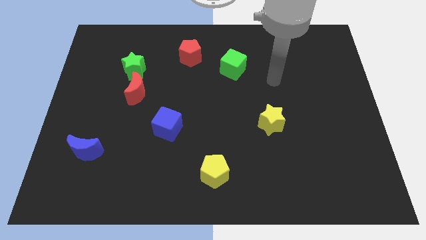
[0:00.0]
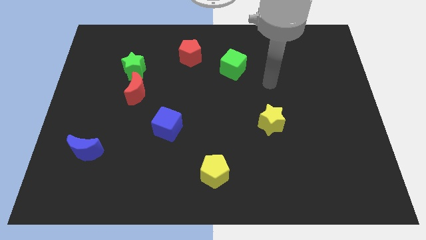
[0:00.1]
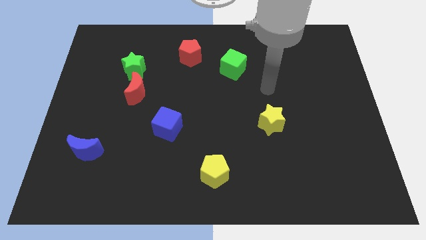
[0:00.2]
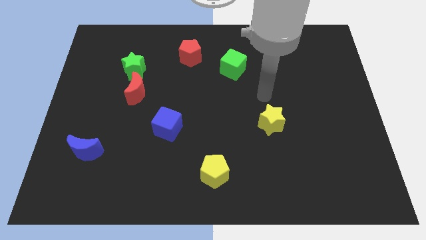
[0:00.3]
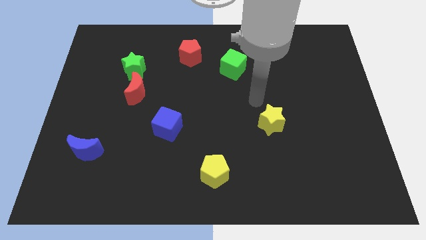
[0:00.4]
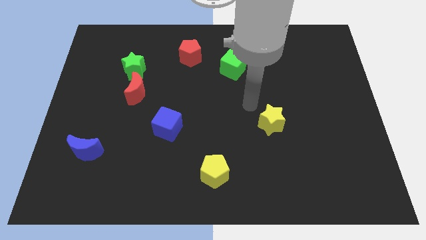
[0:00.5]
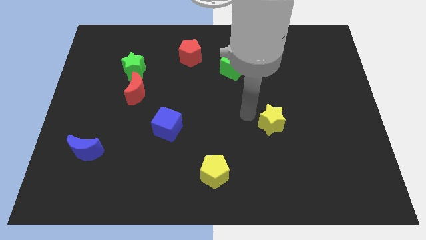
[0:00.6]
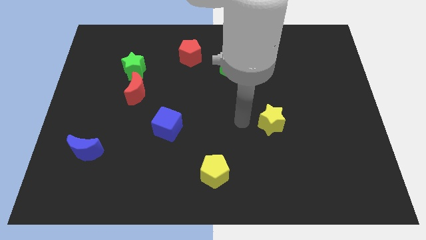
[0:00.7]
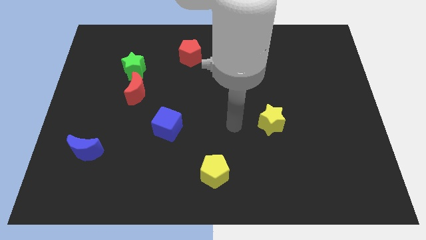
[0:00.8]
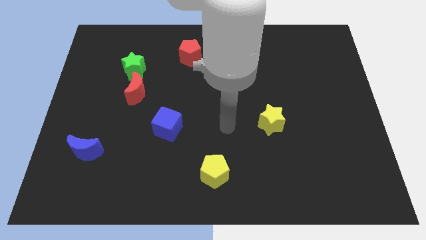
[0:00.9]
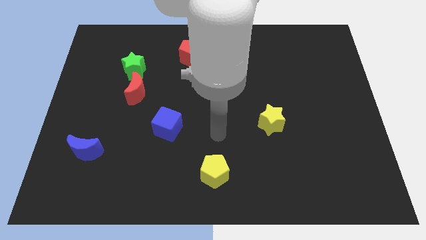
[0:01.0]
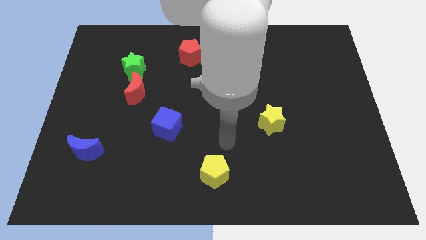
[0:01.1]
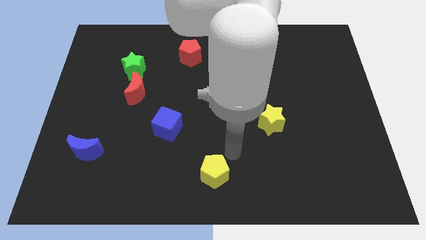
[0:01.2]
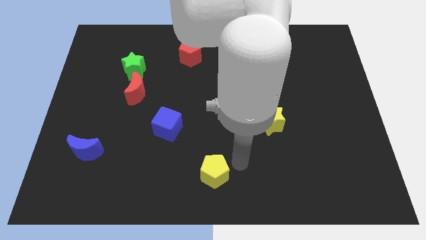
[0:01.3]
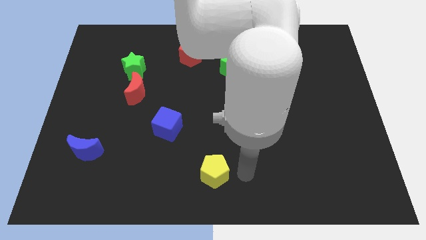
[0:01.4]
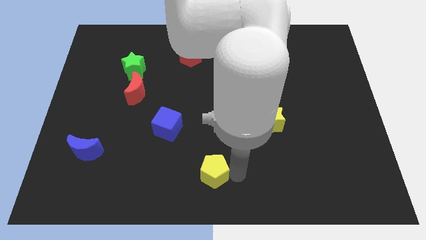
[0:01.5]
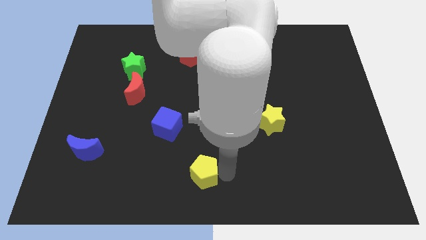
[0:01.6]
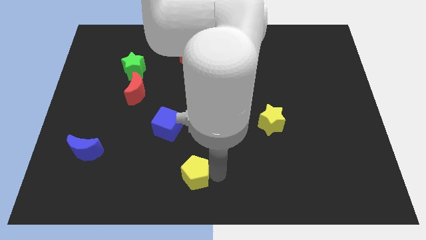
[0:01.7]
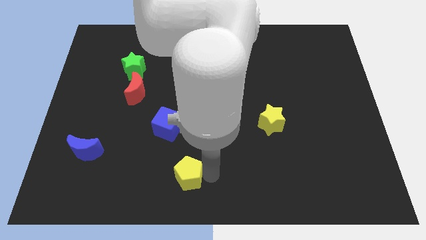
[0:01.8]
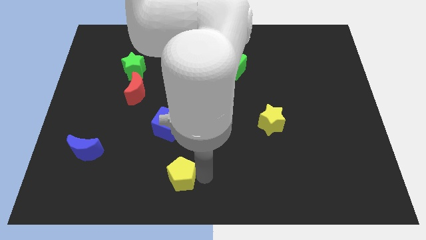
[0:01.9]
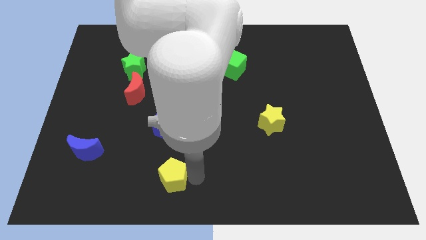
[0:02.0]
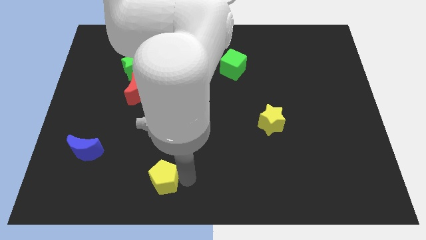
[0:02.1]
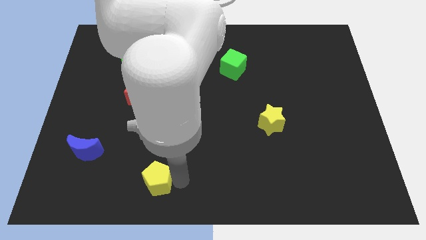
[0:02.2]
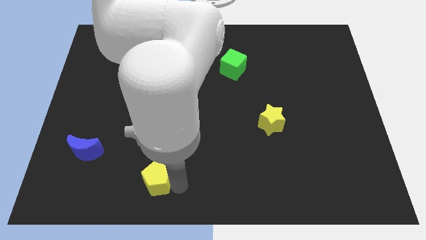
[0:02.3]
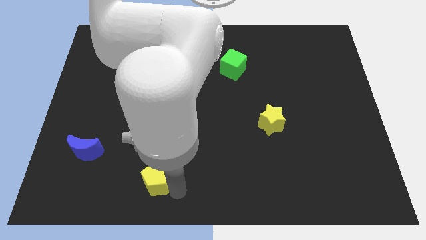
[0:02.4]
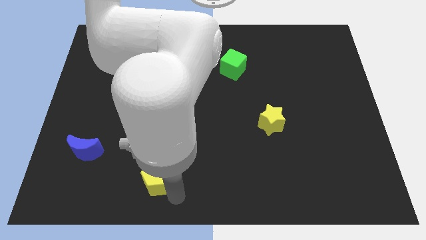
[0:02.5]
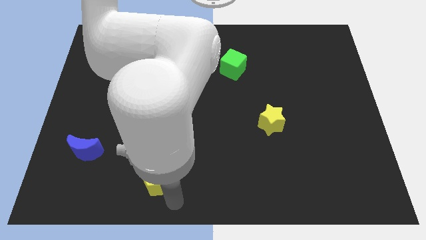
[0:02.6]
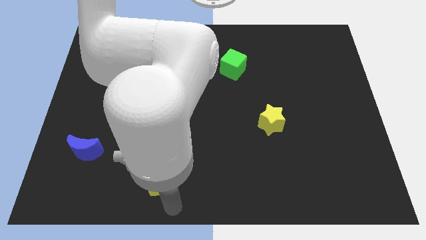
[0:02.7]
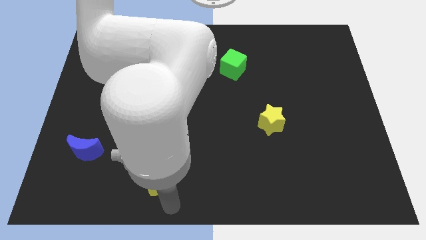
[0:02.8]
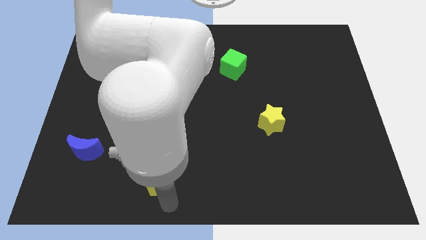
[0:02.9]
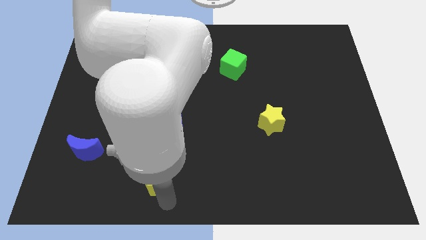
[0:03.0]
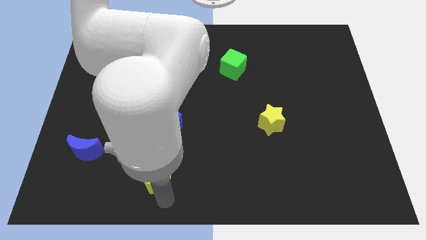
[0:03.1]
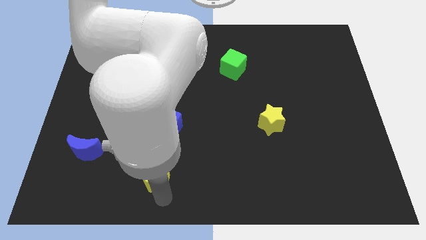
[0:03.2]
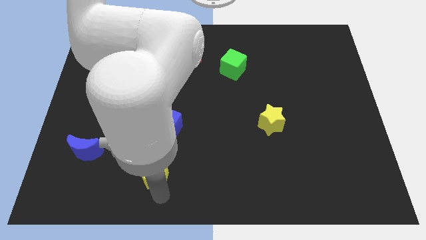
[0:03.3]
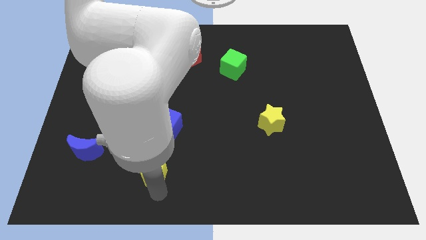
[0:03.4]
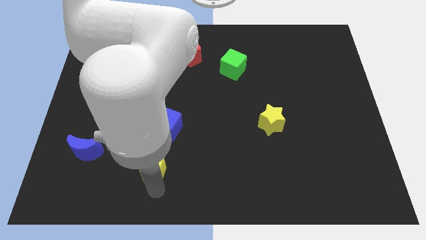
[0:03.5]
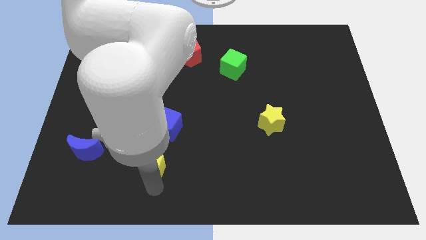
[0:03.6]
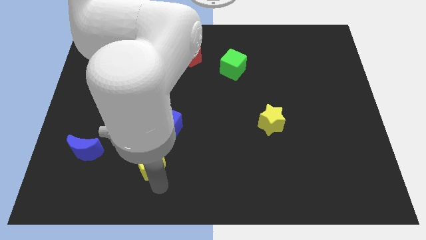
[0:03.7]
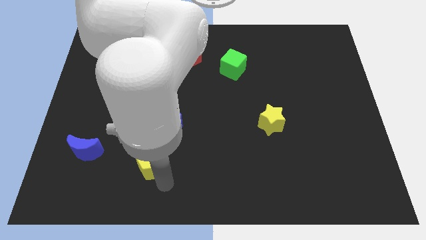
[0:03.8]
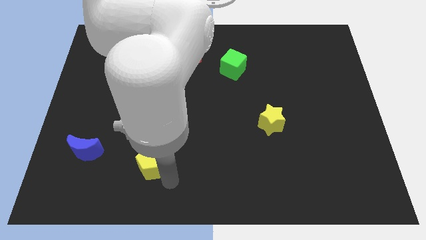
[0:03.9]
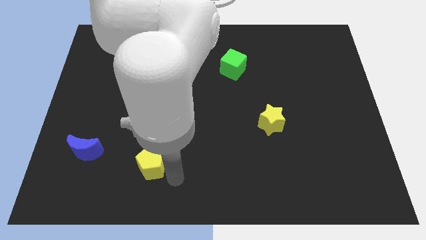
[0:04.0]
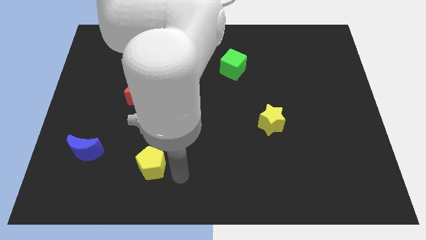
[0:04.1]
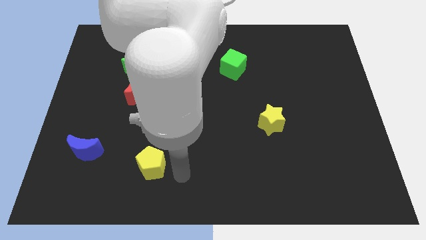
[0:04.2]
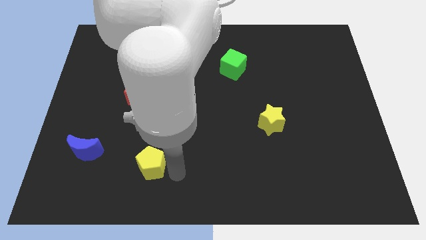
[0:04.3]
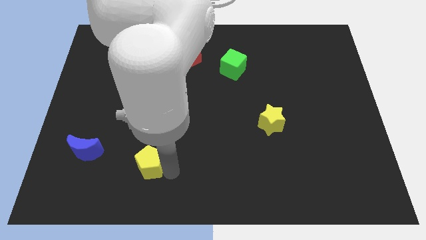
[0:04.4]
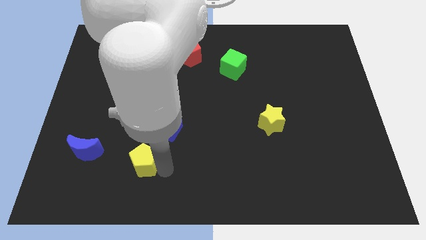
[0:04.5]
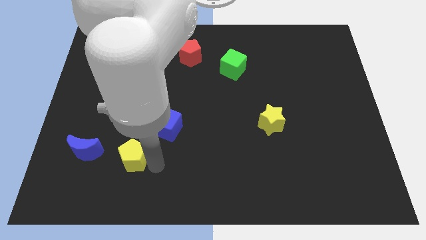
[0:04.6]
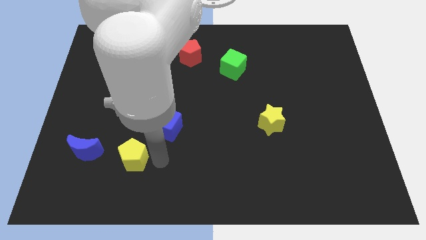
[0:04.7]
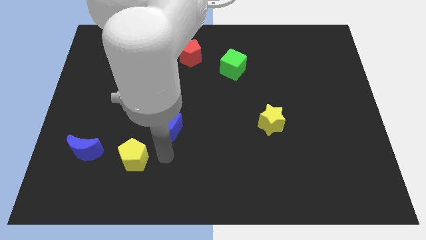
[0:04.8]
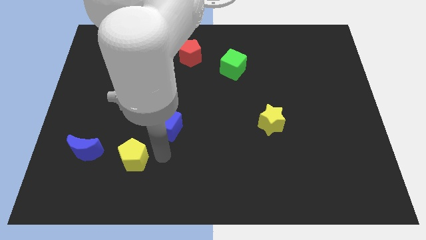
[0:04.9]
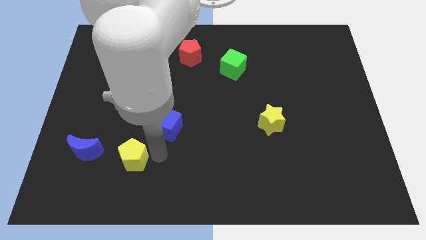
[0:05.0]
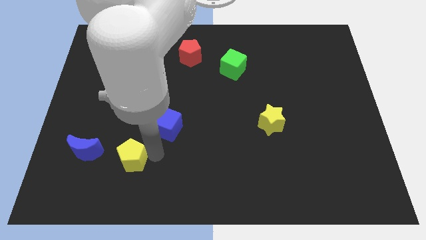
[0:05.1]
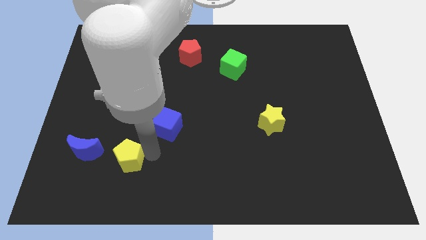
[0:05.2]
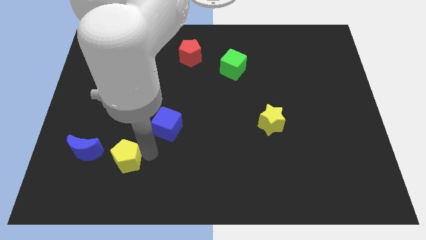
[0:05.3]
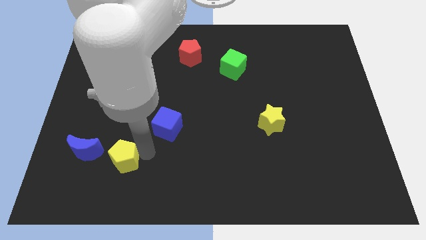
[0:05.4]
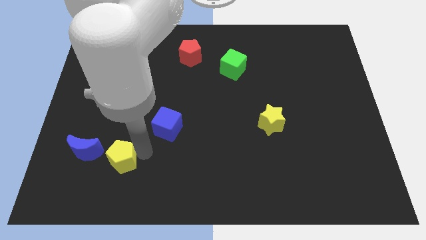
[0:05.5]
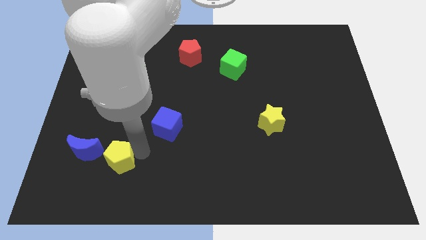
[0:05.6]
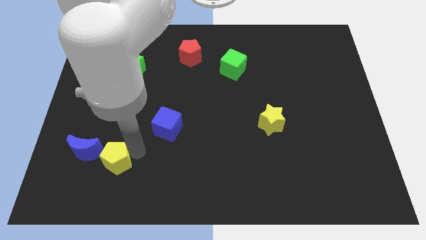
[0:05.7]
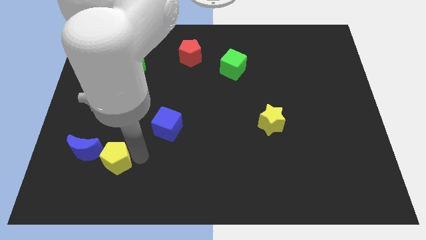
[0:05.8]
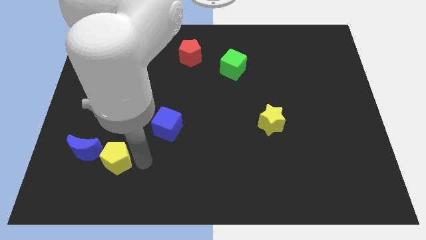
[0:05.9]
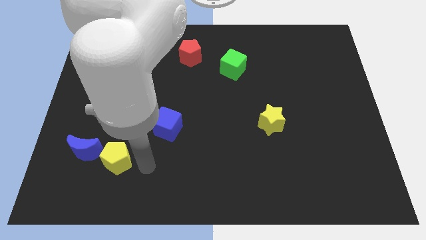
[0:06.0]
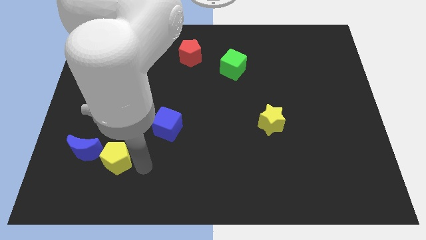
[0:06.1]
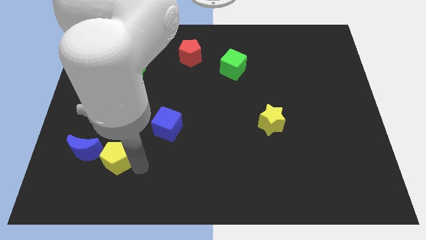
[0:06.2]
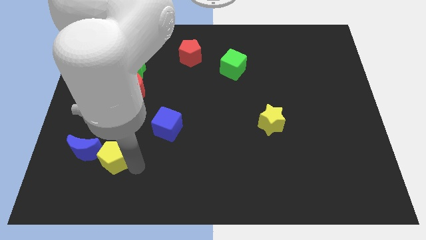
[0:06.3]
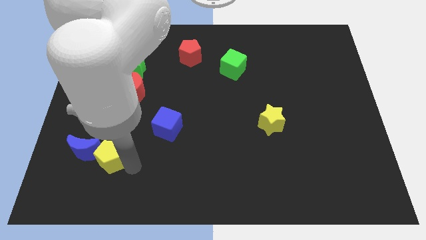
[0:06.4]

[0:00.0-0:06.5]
slide the yellow pentagon to the blue moon
